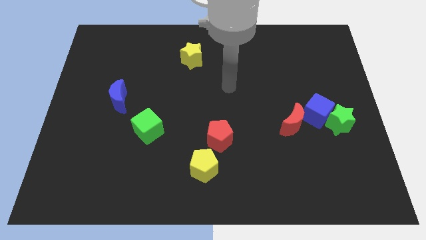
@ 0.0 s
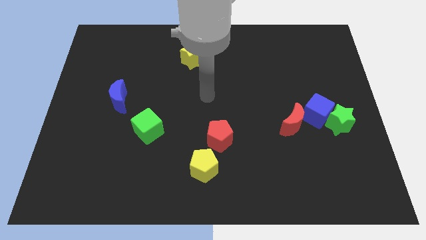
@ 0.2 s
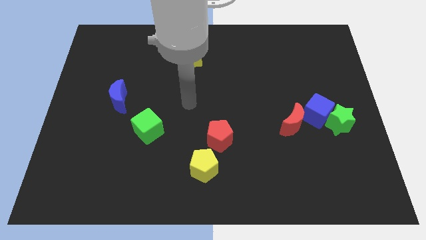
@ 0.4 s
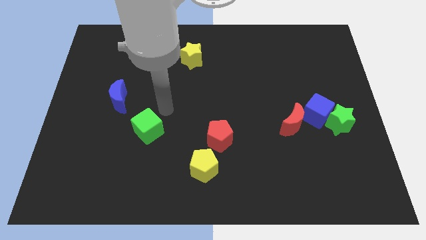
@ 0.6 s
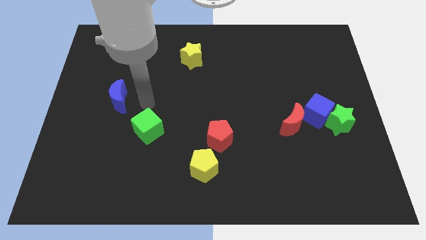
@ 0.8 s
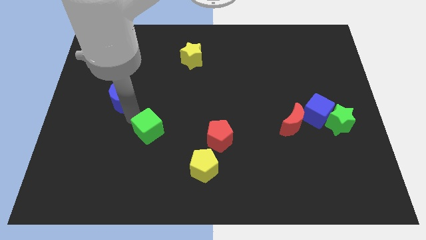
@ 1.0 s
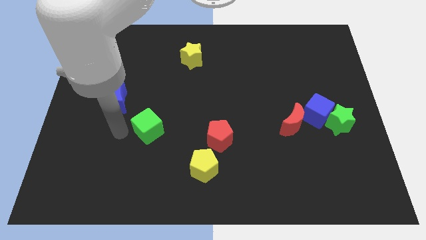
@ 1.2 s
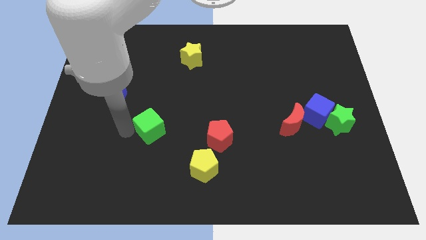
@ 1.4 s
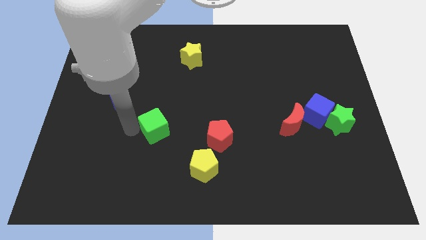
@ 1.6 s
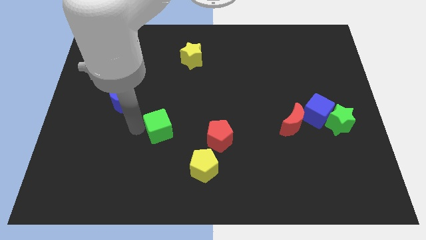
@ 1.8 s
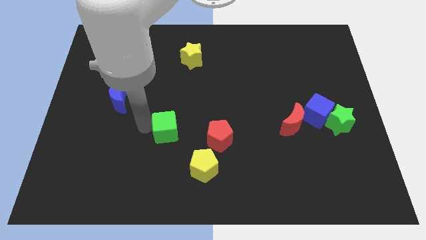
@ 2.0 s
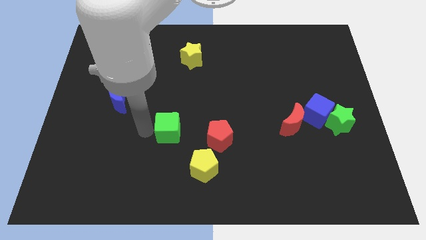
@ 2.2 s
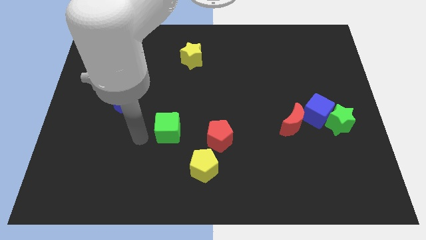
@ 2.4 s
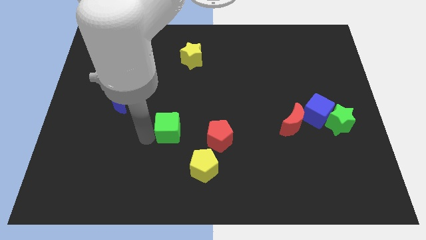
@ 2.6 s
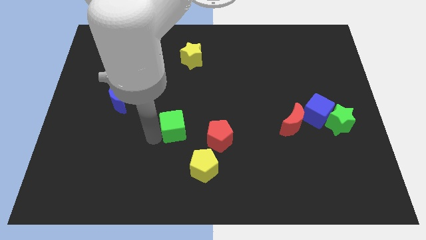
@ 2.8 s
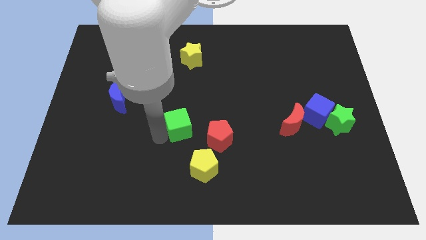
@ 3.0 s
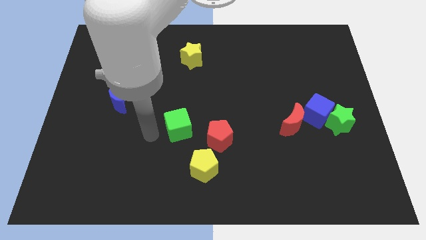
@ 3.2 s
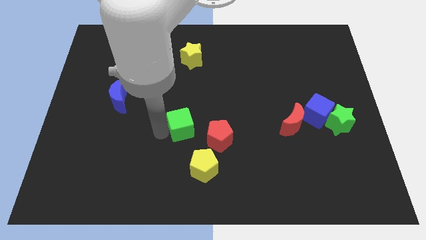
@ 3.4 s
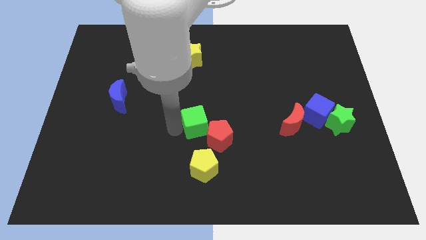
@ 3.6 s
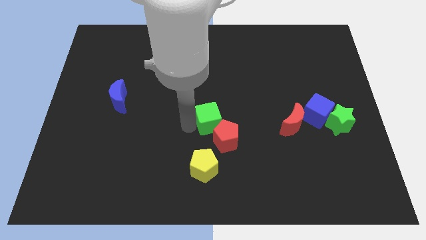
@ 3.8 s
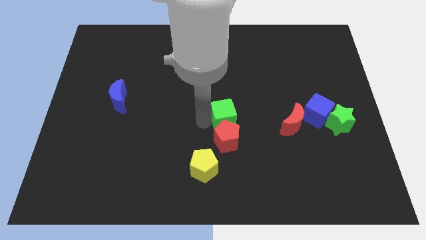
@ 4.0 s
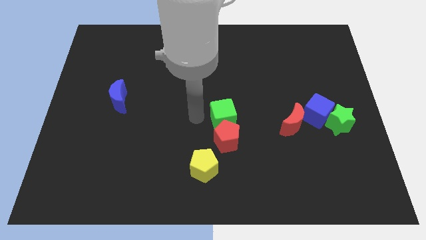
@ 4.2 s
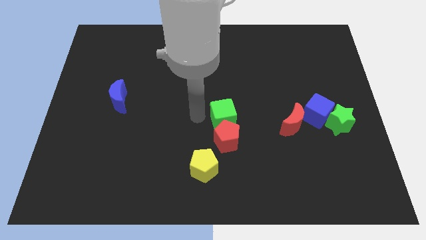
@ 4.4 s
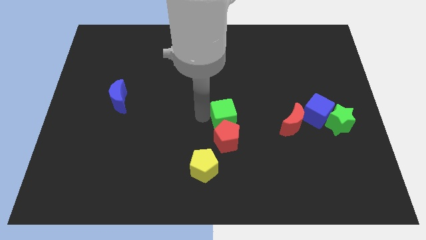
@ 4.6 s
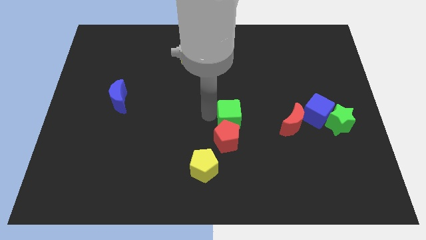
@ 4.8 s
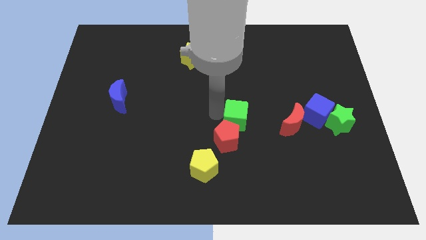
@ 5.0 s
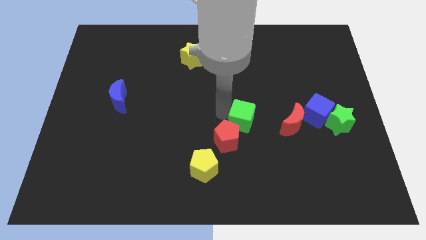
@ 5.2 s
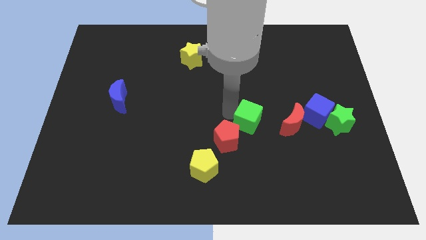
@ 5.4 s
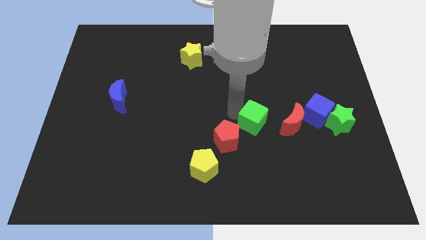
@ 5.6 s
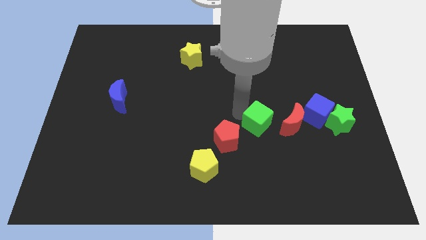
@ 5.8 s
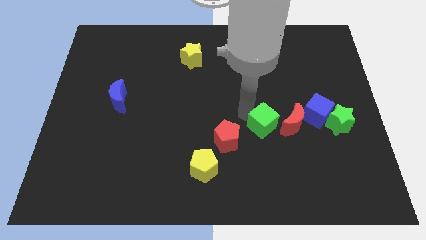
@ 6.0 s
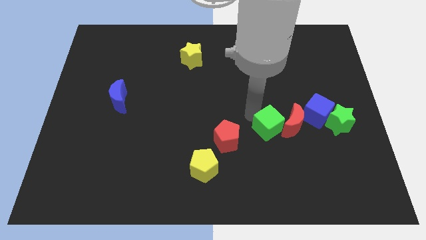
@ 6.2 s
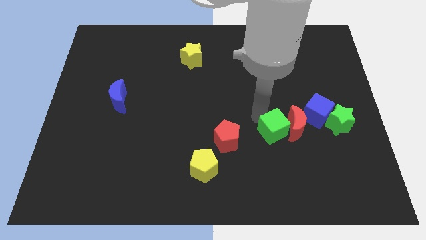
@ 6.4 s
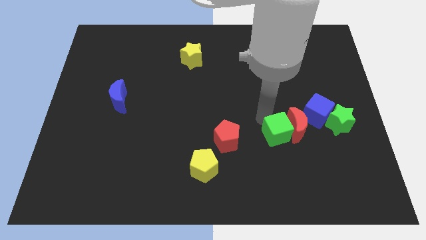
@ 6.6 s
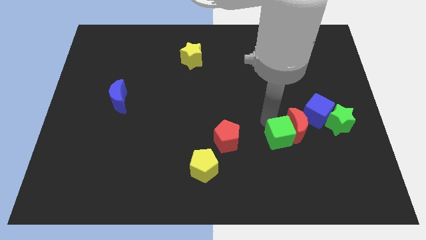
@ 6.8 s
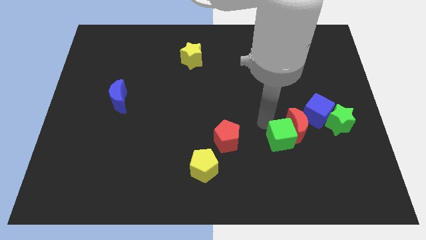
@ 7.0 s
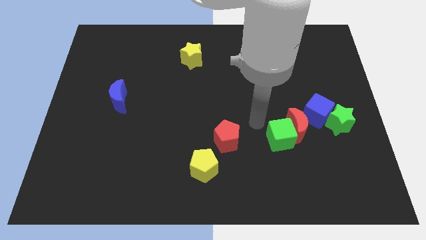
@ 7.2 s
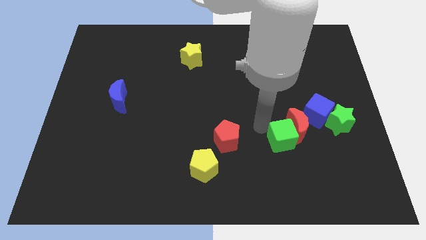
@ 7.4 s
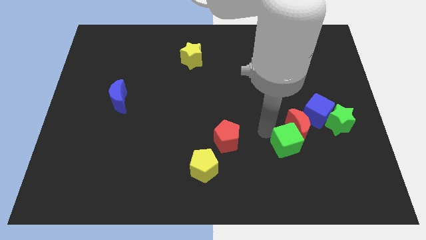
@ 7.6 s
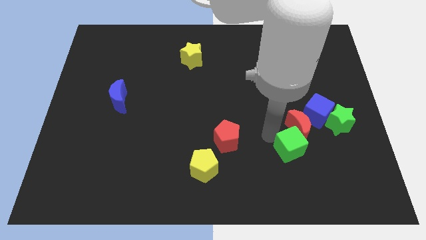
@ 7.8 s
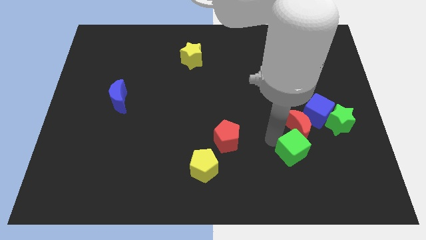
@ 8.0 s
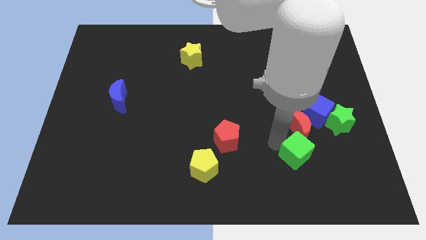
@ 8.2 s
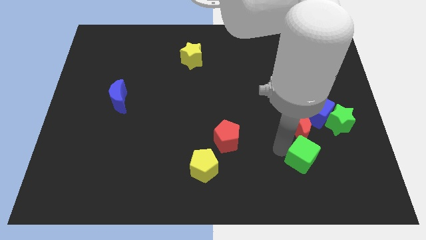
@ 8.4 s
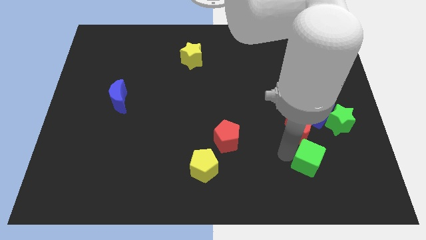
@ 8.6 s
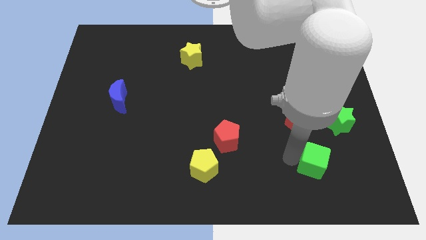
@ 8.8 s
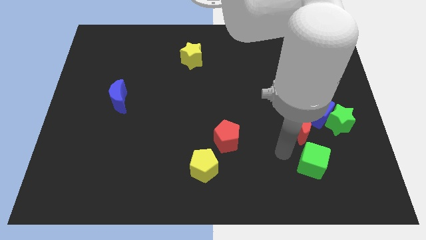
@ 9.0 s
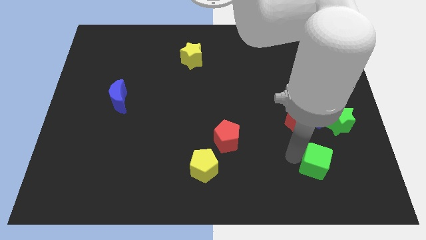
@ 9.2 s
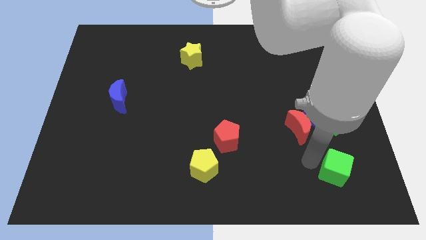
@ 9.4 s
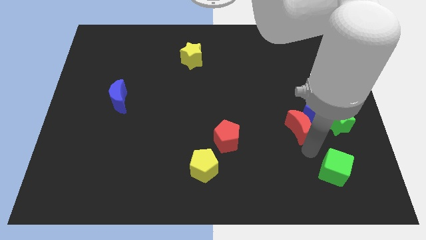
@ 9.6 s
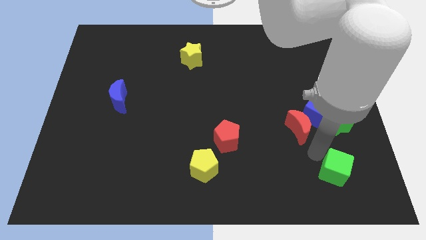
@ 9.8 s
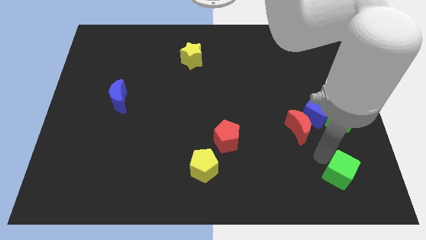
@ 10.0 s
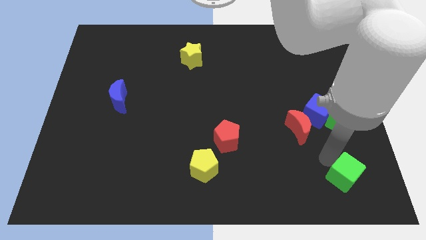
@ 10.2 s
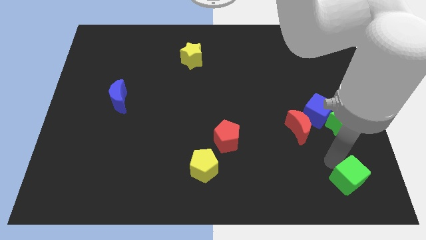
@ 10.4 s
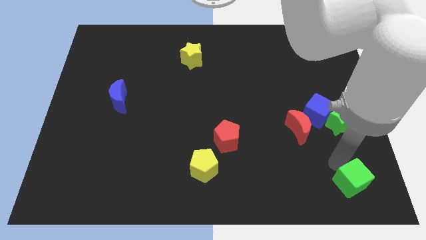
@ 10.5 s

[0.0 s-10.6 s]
put the green cube to the bottom right corner

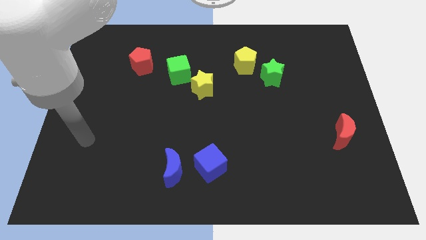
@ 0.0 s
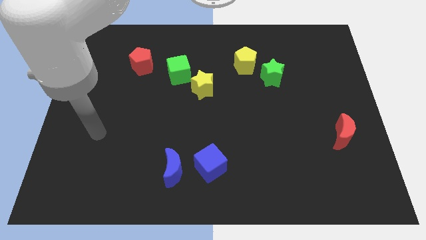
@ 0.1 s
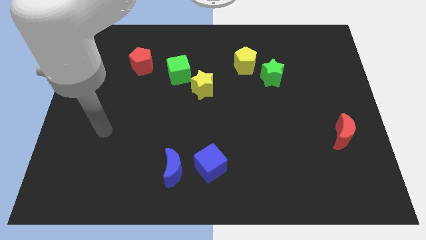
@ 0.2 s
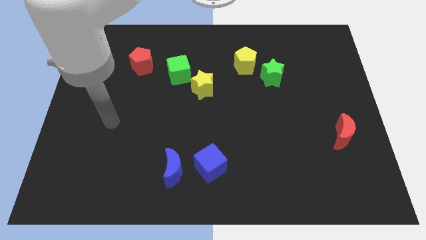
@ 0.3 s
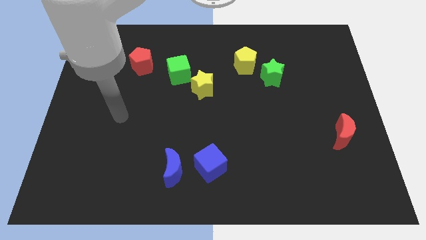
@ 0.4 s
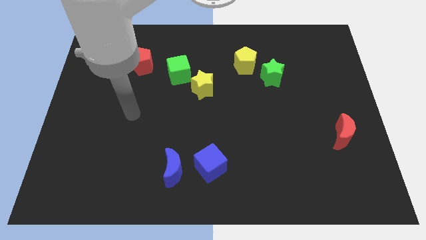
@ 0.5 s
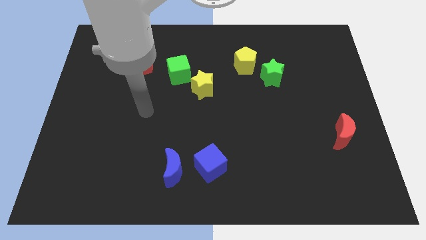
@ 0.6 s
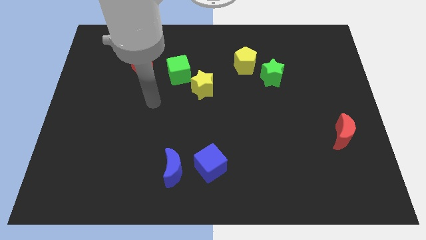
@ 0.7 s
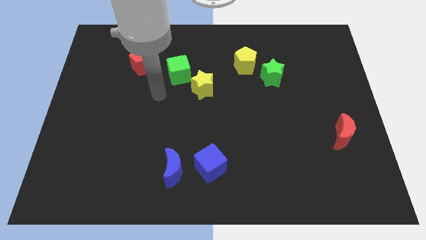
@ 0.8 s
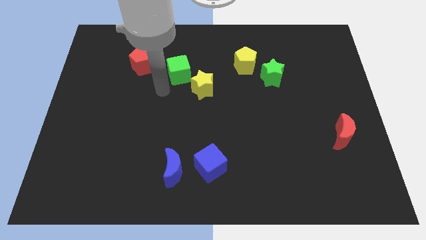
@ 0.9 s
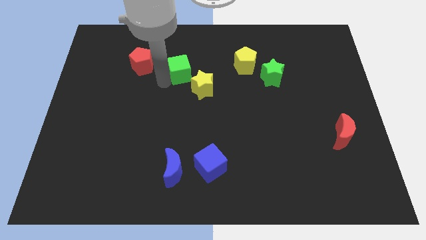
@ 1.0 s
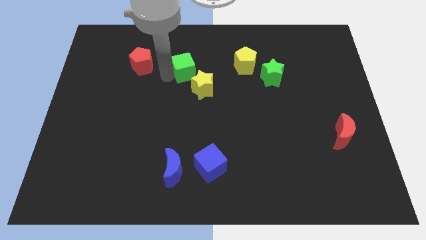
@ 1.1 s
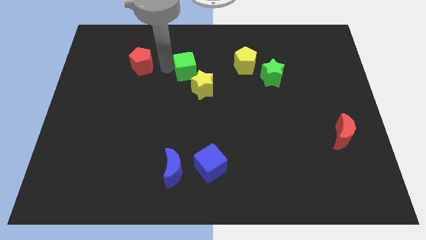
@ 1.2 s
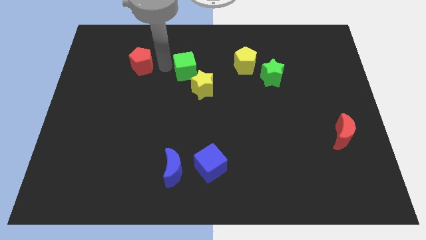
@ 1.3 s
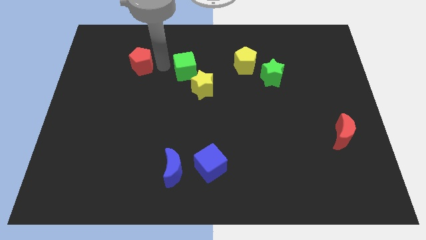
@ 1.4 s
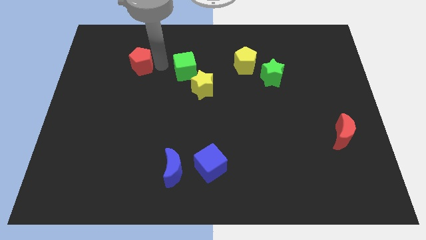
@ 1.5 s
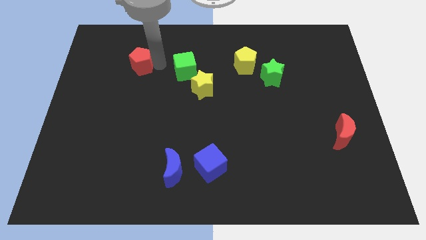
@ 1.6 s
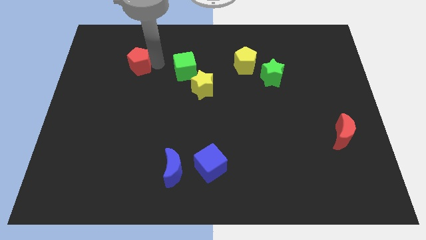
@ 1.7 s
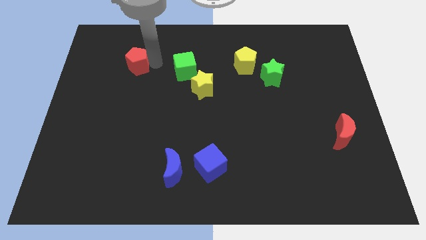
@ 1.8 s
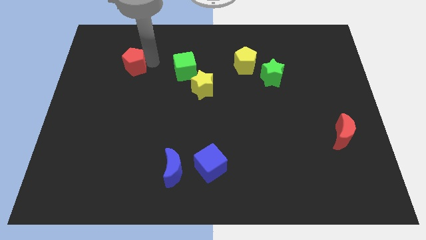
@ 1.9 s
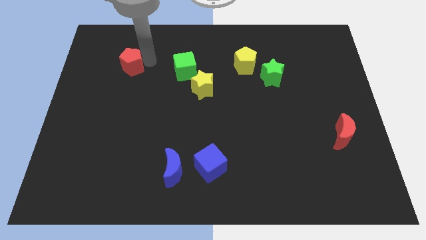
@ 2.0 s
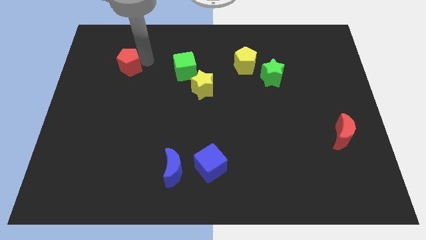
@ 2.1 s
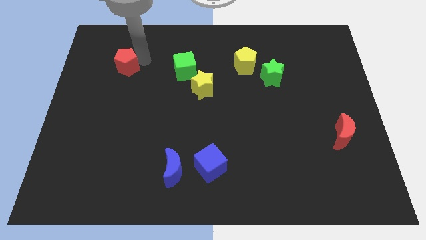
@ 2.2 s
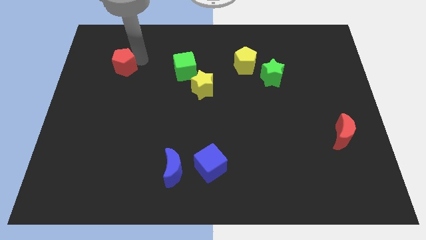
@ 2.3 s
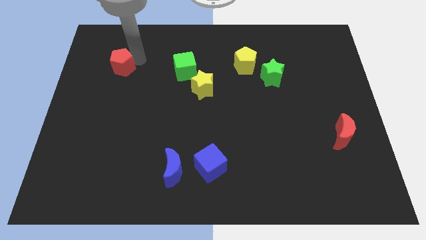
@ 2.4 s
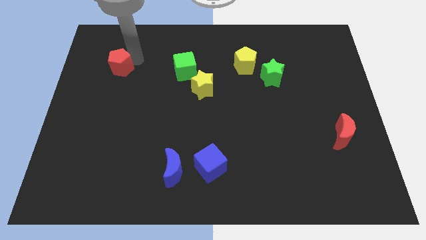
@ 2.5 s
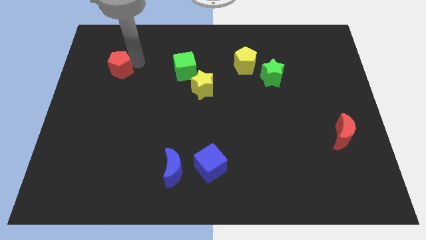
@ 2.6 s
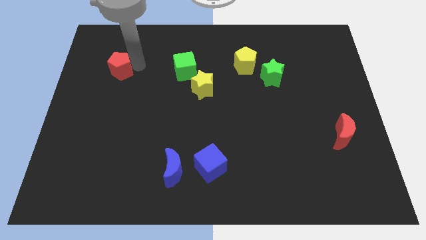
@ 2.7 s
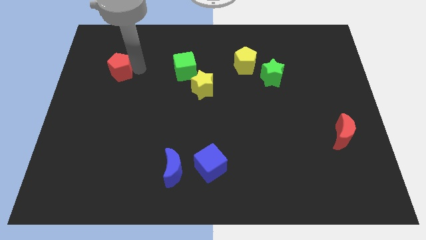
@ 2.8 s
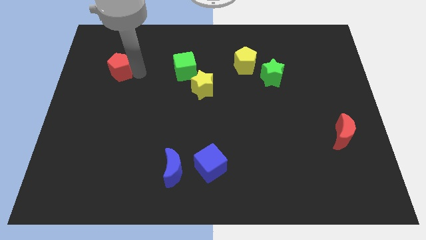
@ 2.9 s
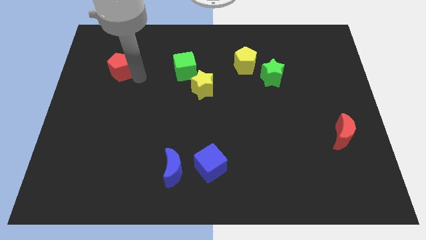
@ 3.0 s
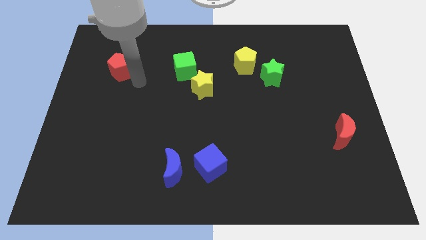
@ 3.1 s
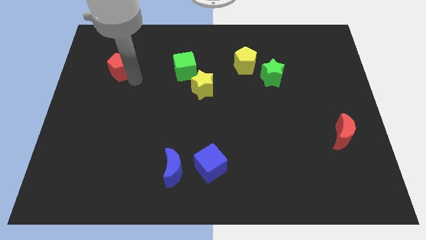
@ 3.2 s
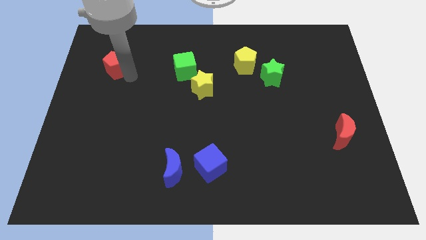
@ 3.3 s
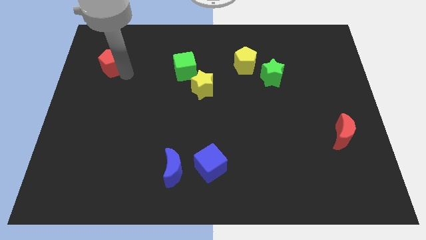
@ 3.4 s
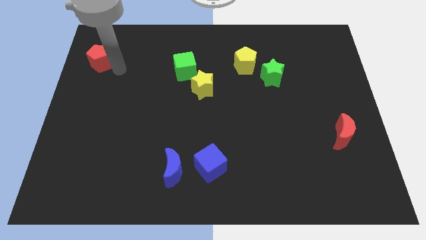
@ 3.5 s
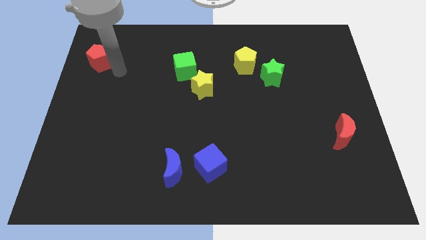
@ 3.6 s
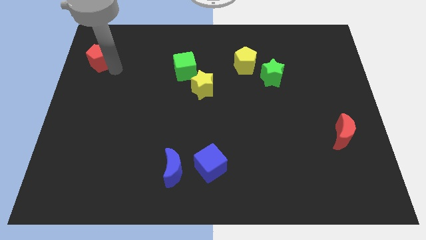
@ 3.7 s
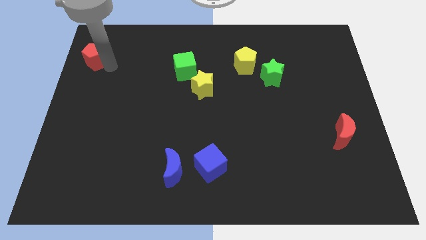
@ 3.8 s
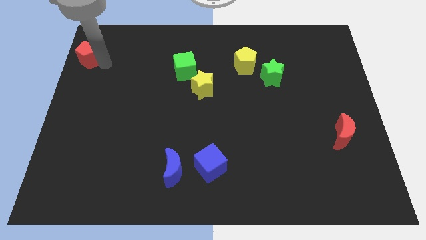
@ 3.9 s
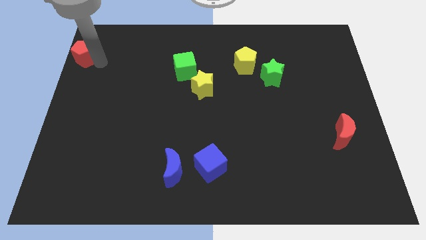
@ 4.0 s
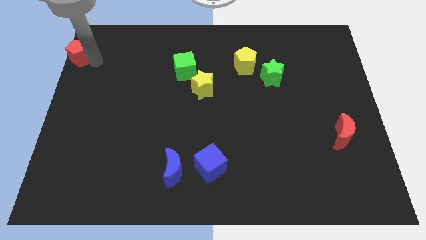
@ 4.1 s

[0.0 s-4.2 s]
slide the red pentagon to the top left corner
